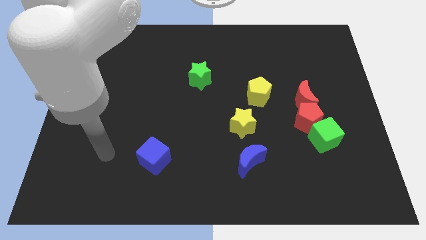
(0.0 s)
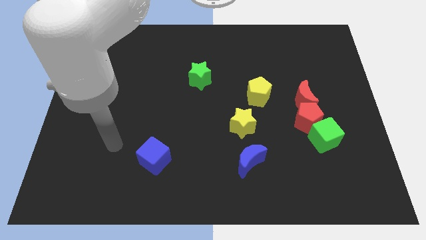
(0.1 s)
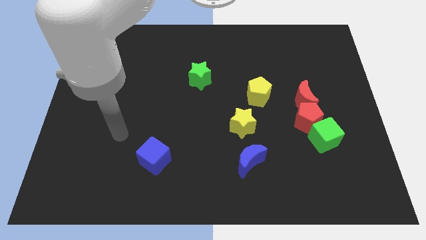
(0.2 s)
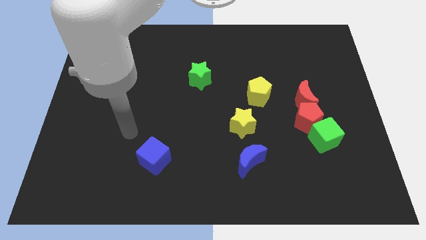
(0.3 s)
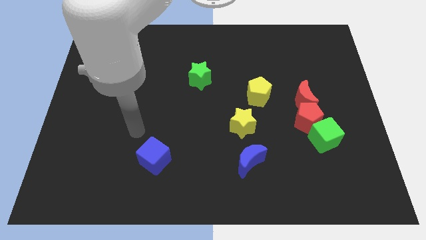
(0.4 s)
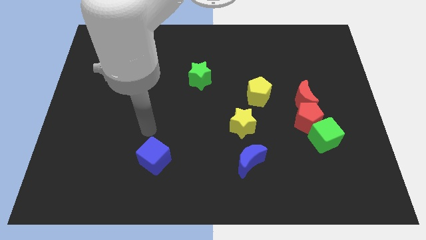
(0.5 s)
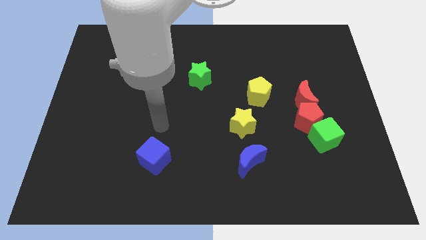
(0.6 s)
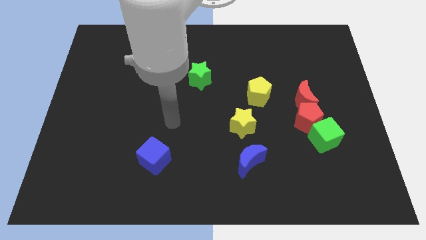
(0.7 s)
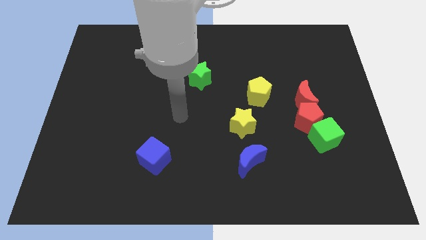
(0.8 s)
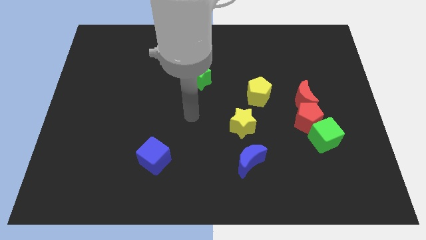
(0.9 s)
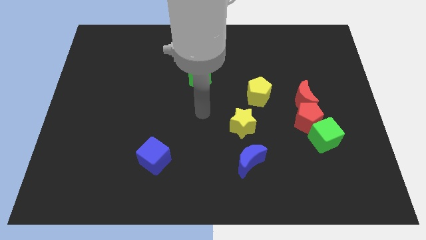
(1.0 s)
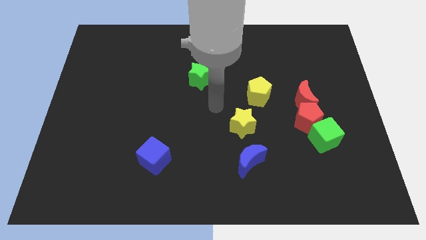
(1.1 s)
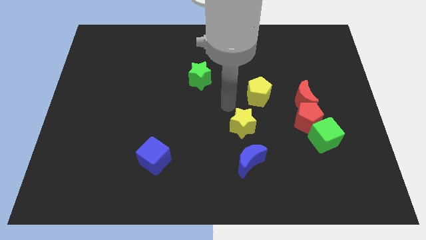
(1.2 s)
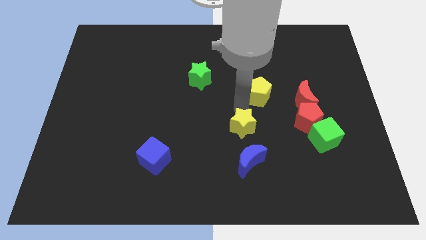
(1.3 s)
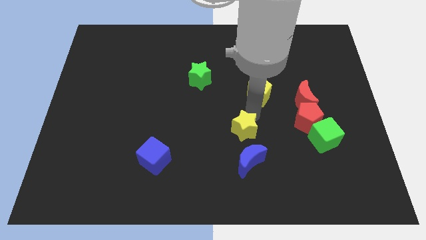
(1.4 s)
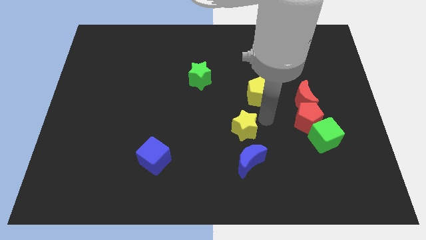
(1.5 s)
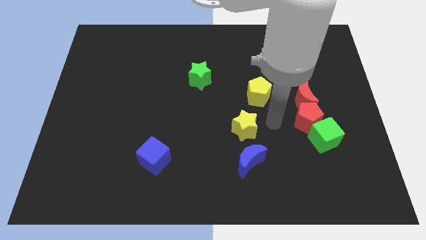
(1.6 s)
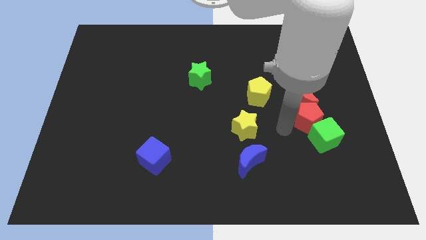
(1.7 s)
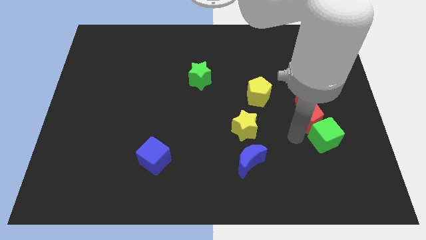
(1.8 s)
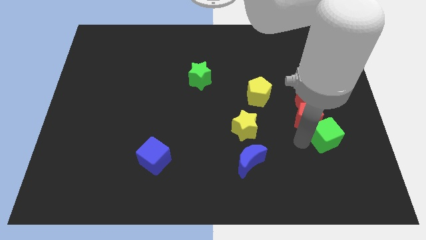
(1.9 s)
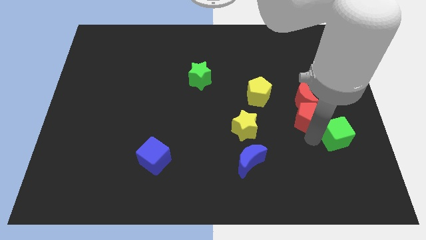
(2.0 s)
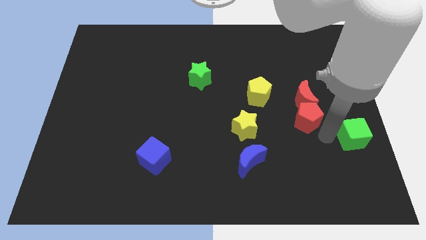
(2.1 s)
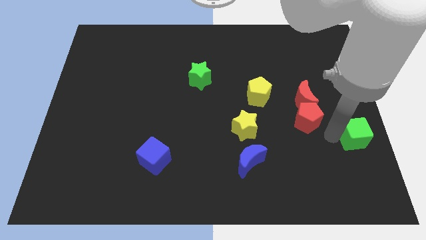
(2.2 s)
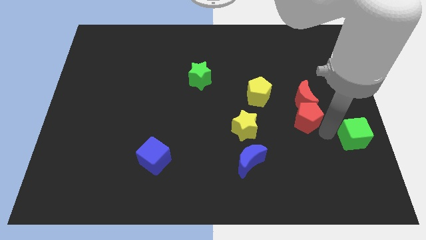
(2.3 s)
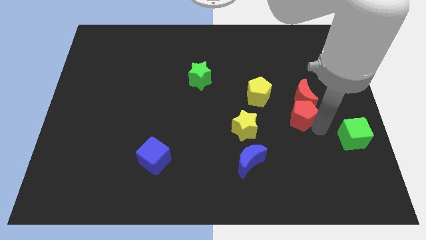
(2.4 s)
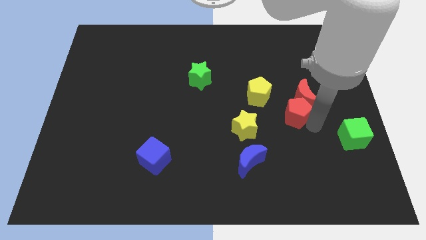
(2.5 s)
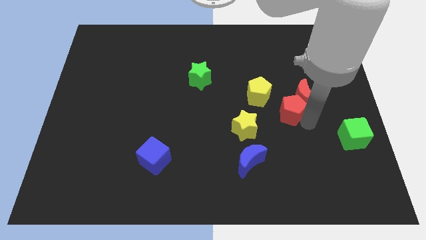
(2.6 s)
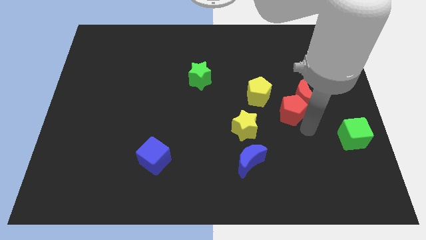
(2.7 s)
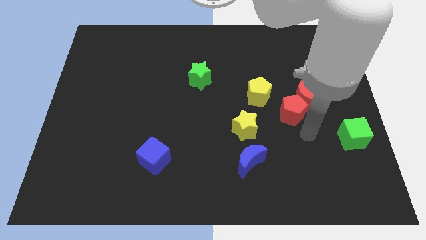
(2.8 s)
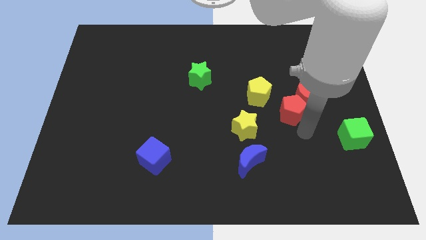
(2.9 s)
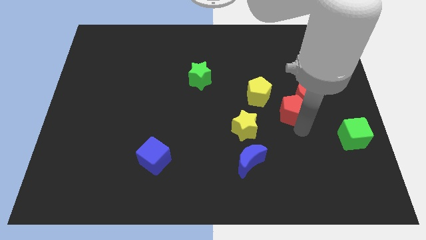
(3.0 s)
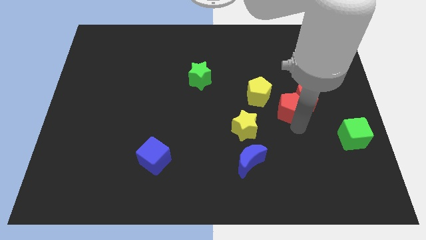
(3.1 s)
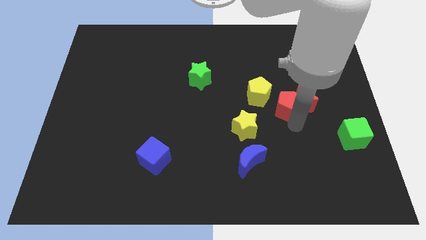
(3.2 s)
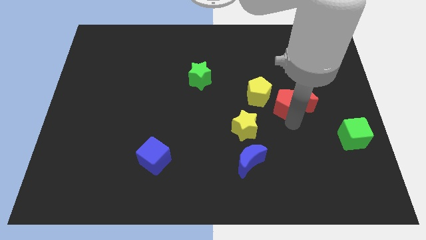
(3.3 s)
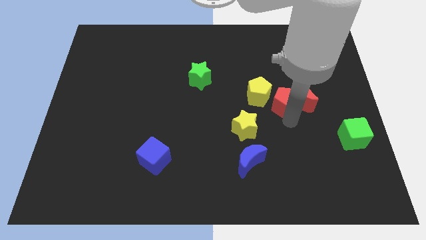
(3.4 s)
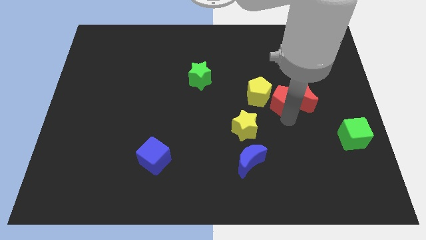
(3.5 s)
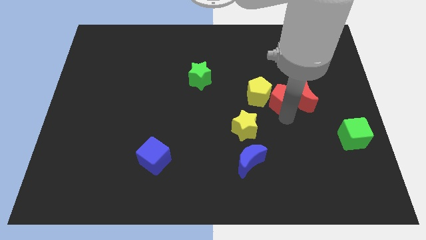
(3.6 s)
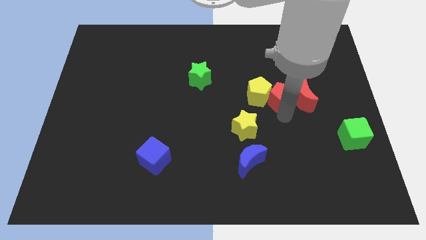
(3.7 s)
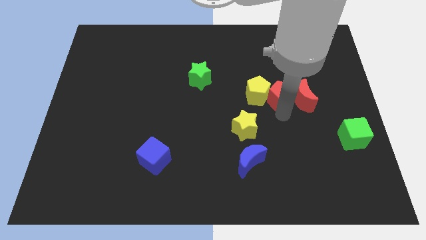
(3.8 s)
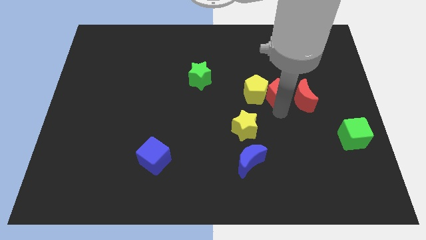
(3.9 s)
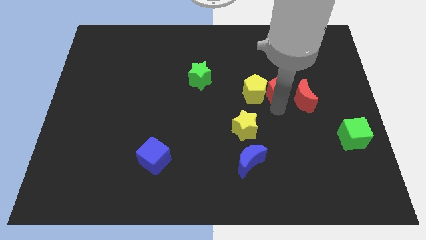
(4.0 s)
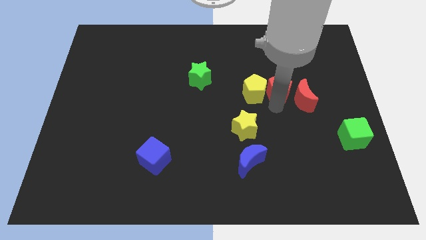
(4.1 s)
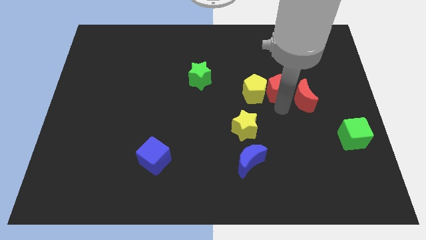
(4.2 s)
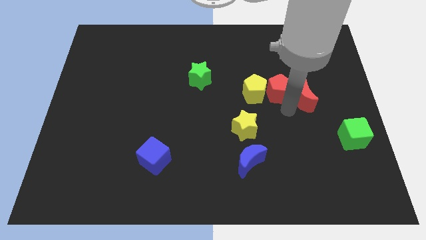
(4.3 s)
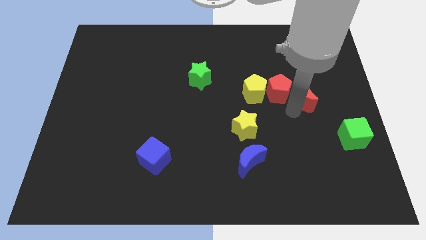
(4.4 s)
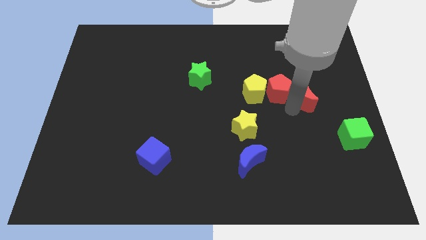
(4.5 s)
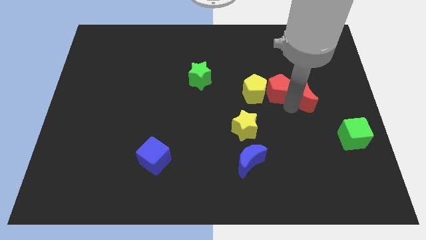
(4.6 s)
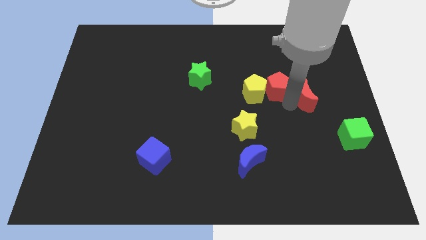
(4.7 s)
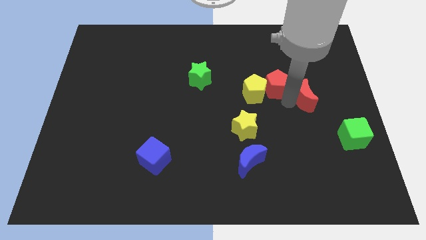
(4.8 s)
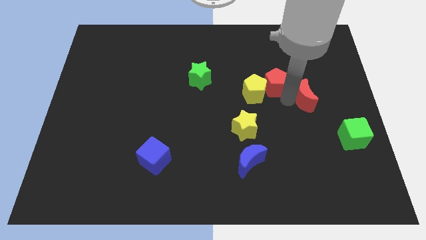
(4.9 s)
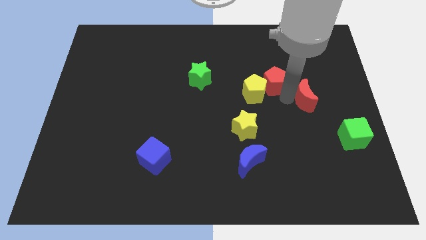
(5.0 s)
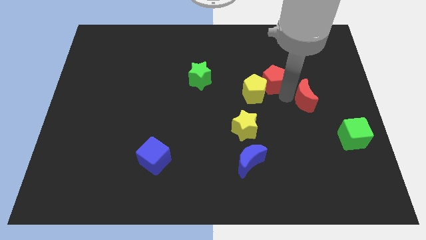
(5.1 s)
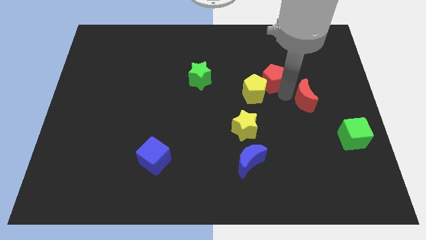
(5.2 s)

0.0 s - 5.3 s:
move the red pentagon above the yellow pentagon
